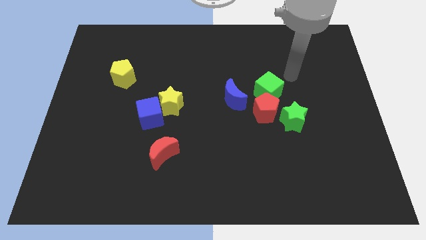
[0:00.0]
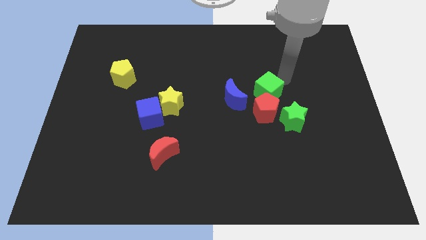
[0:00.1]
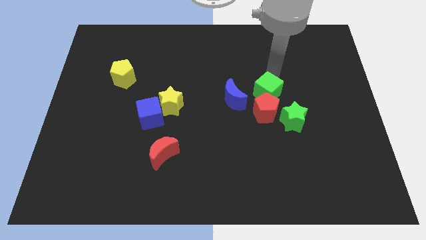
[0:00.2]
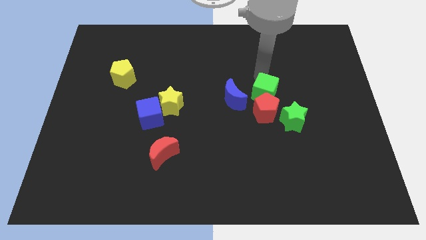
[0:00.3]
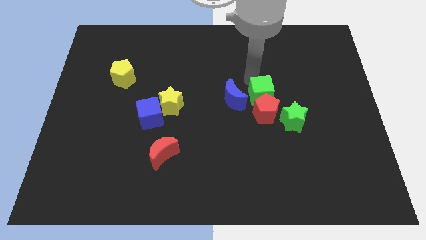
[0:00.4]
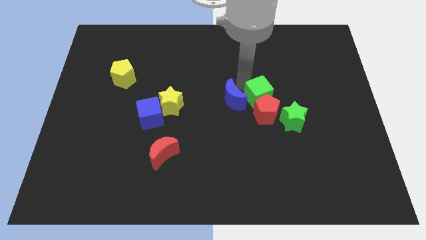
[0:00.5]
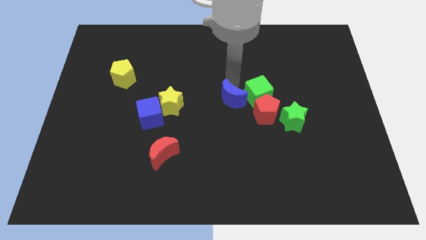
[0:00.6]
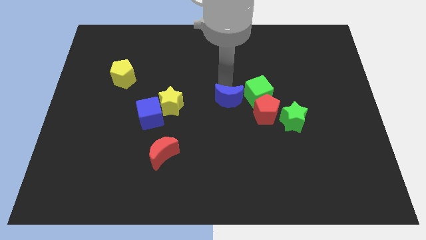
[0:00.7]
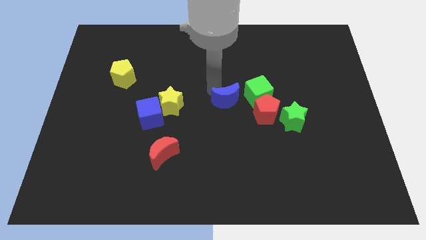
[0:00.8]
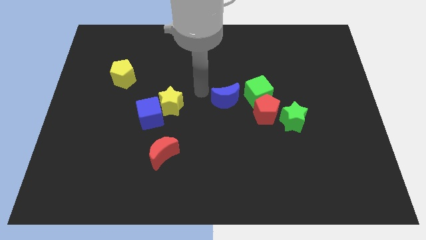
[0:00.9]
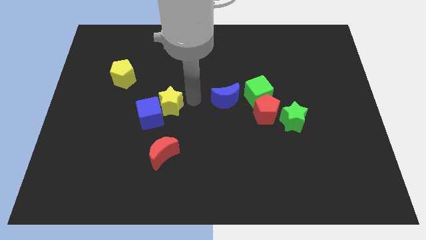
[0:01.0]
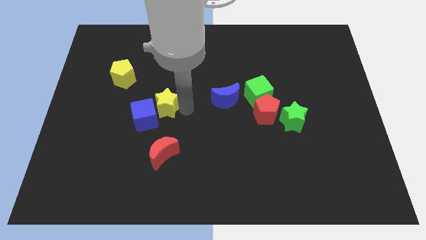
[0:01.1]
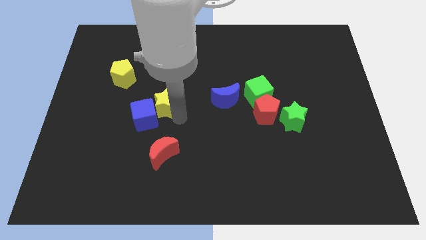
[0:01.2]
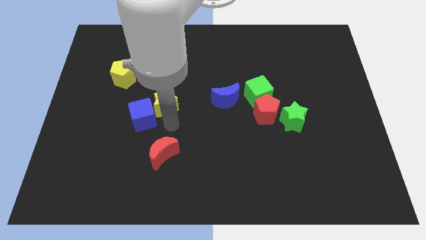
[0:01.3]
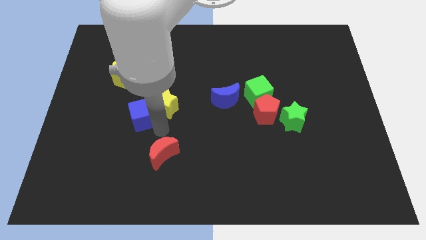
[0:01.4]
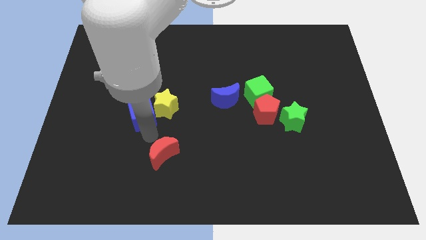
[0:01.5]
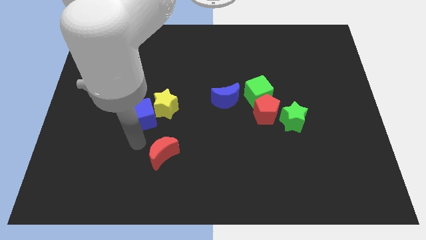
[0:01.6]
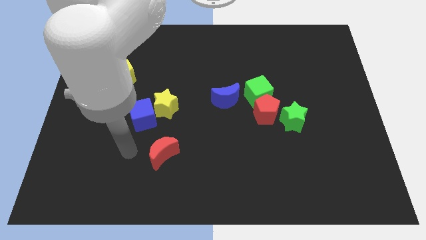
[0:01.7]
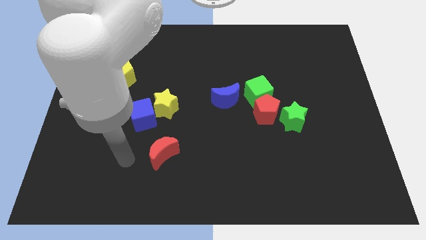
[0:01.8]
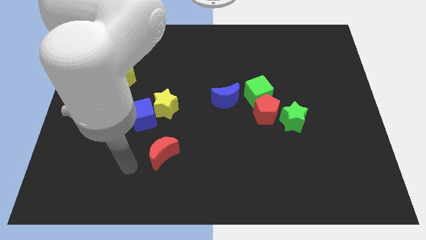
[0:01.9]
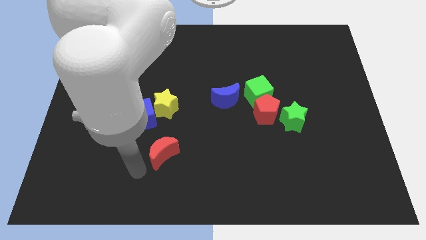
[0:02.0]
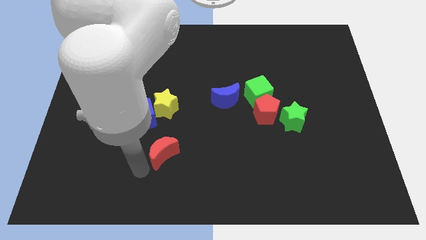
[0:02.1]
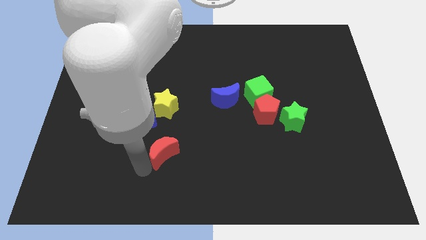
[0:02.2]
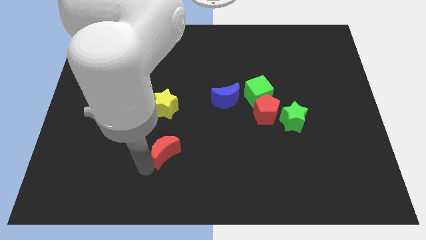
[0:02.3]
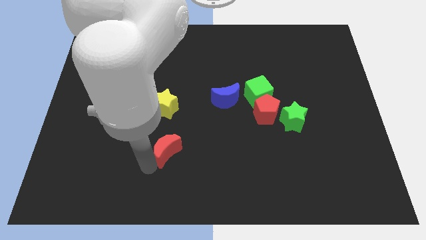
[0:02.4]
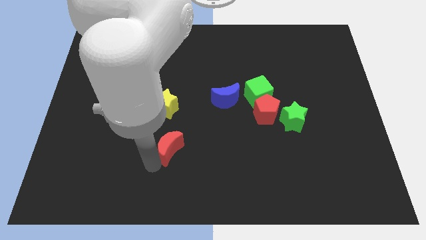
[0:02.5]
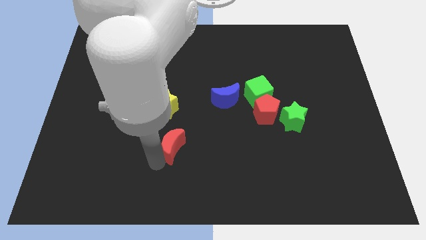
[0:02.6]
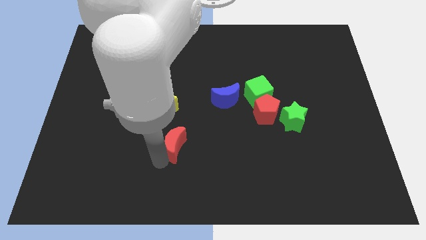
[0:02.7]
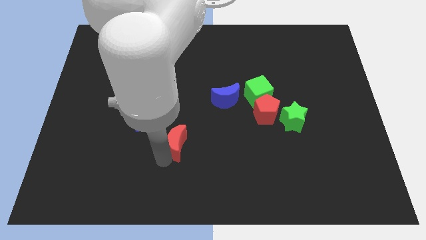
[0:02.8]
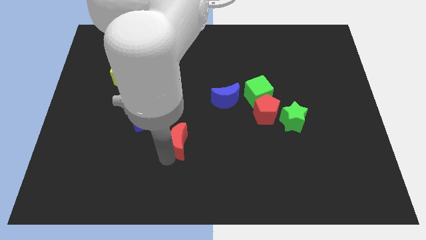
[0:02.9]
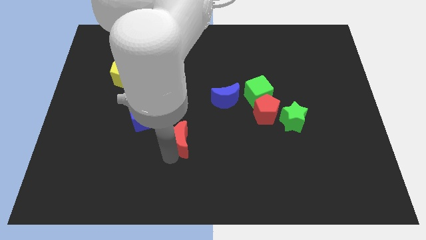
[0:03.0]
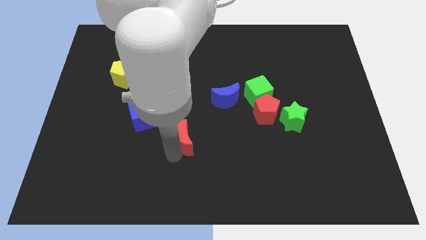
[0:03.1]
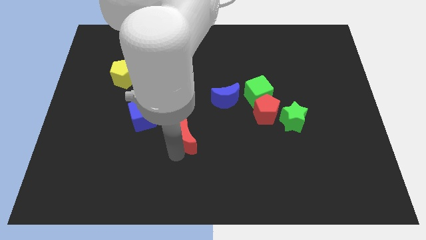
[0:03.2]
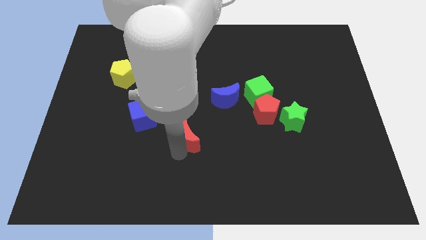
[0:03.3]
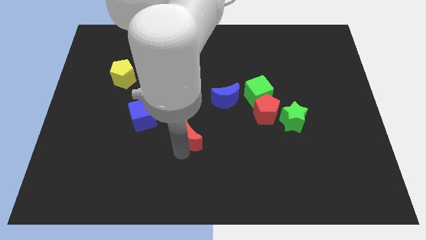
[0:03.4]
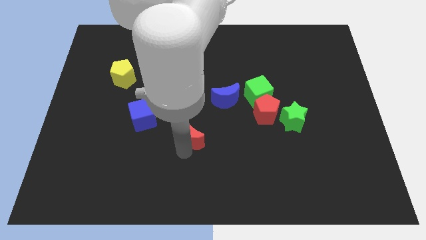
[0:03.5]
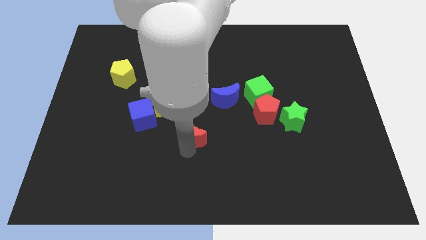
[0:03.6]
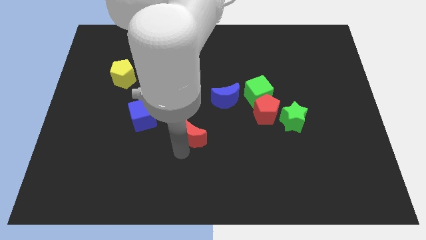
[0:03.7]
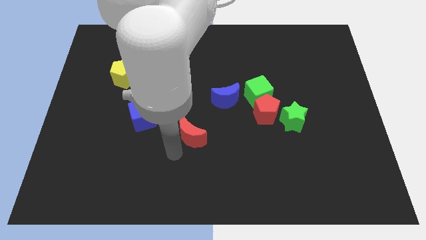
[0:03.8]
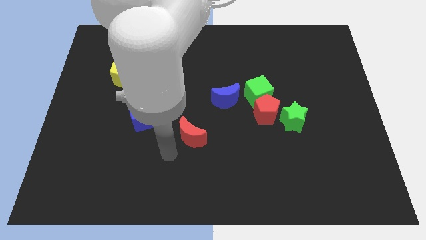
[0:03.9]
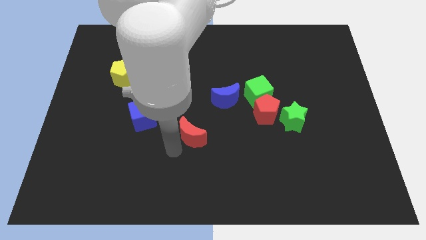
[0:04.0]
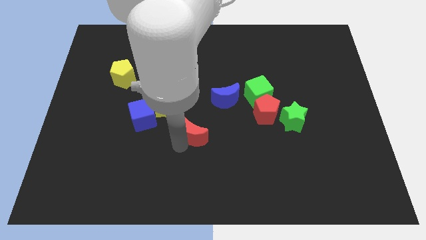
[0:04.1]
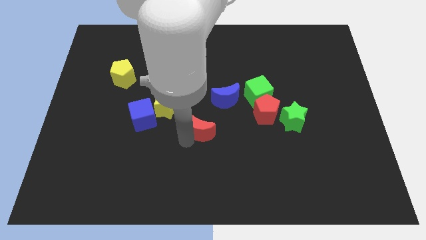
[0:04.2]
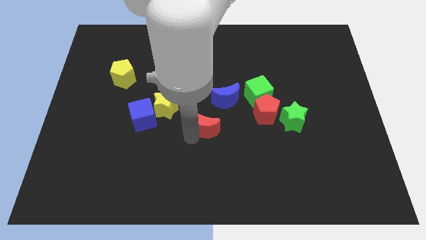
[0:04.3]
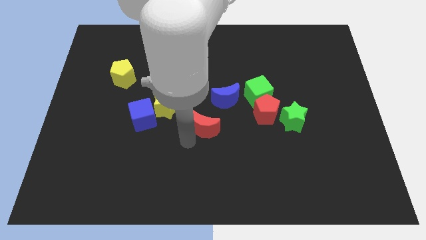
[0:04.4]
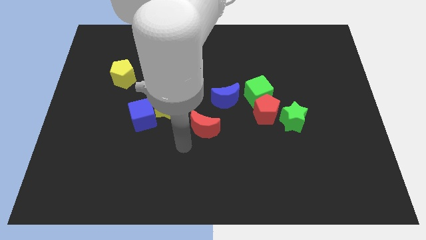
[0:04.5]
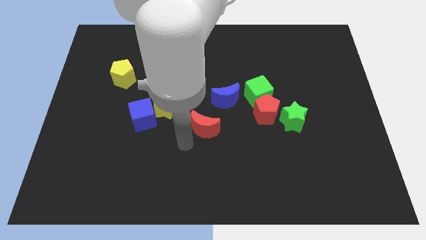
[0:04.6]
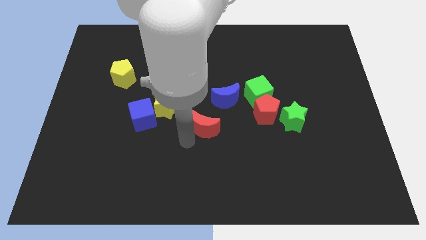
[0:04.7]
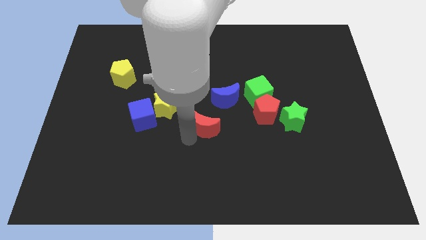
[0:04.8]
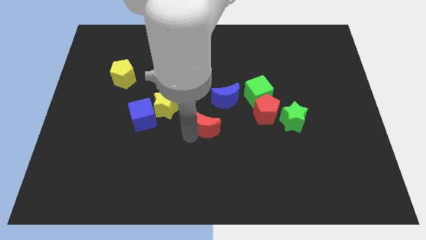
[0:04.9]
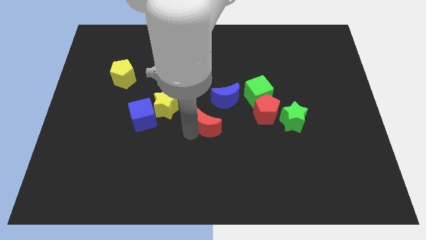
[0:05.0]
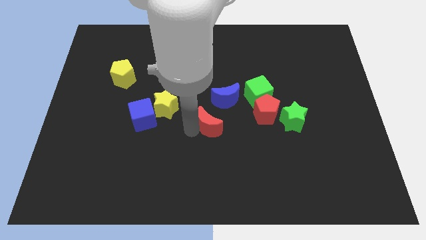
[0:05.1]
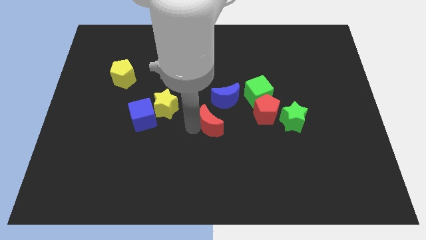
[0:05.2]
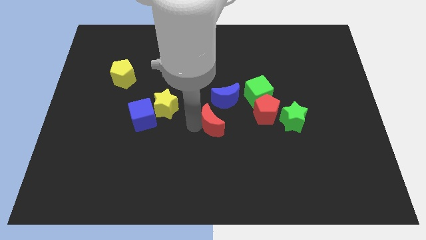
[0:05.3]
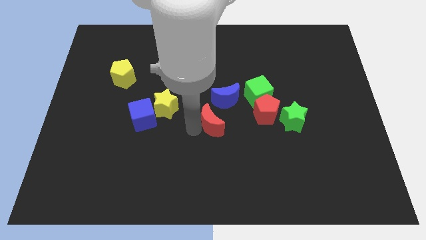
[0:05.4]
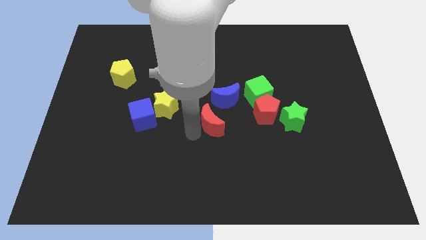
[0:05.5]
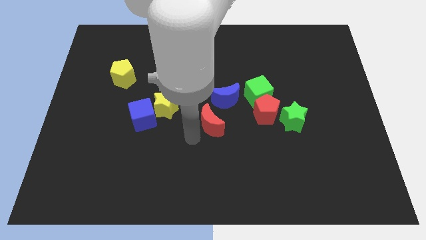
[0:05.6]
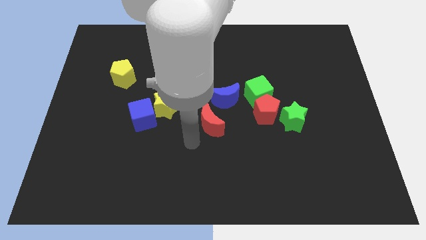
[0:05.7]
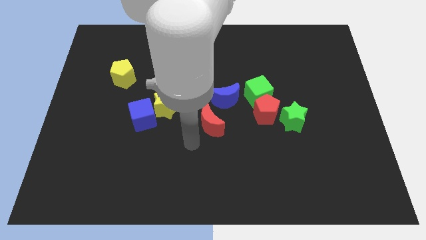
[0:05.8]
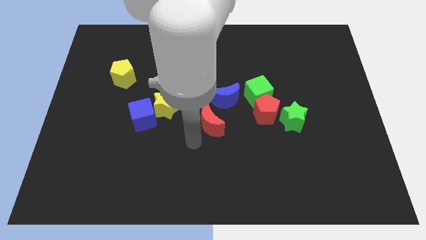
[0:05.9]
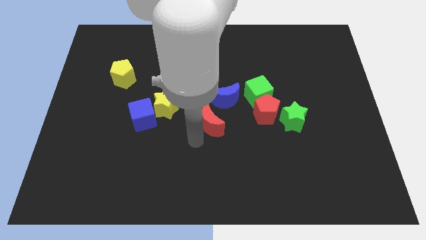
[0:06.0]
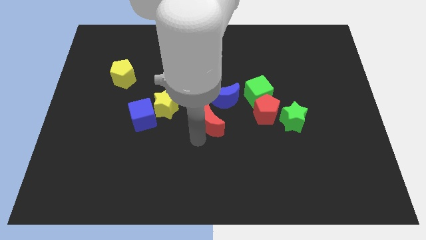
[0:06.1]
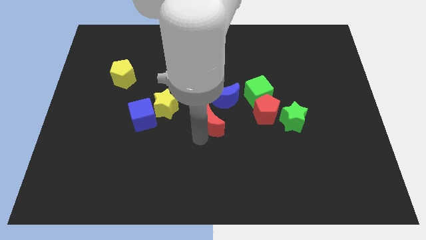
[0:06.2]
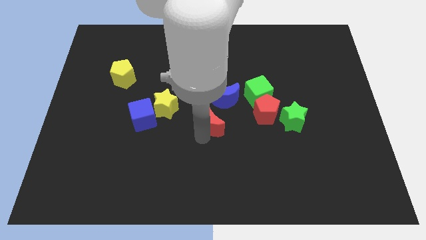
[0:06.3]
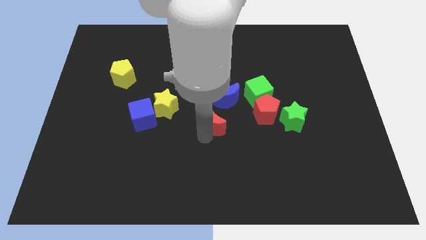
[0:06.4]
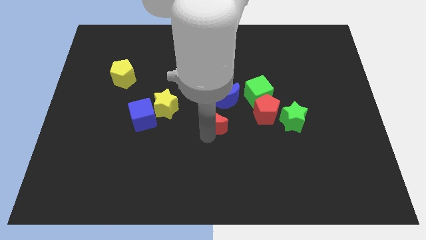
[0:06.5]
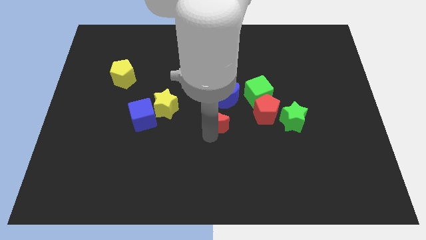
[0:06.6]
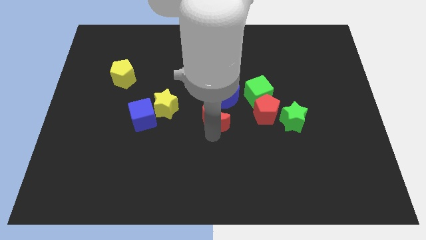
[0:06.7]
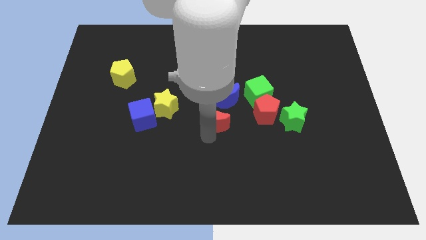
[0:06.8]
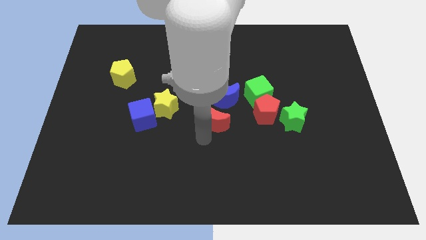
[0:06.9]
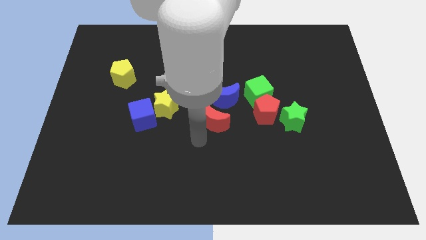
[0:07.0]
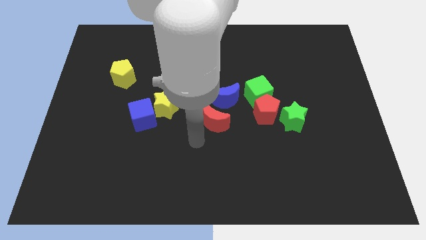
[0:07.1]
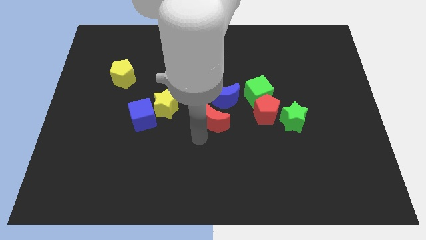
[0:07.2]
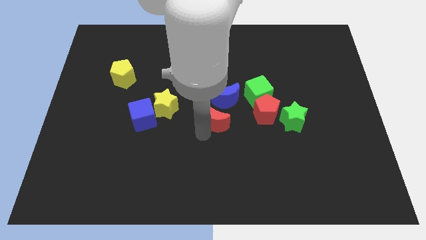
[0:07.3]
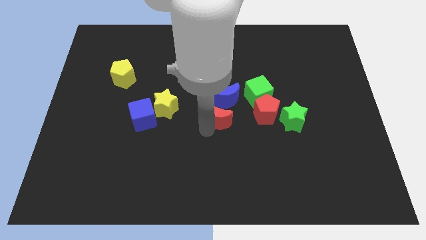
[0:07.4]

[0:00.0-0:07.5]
put the red moon to the blue moon
